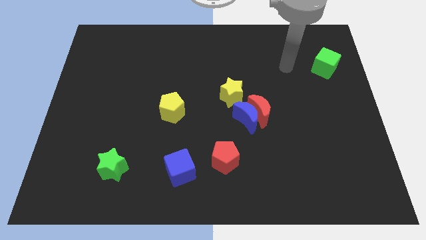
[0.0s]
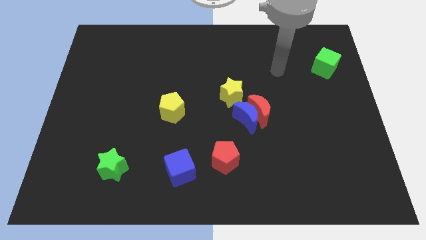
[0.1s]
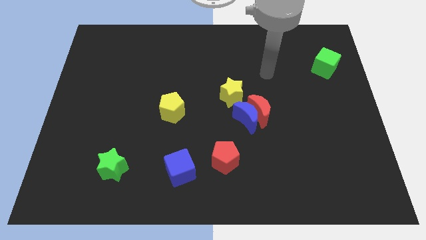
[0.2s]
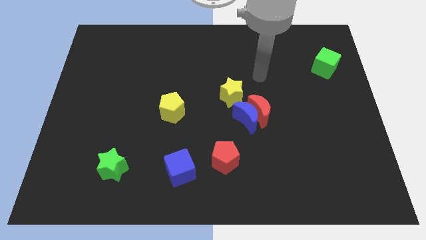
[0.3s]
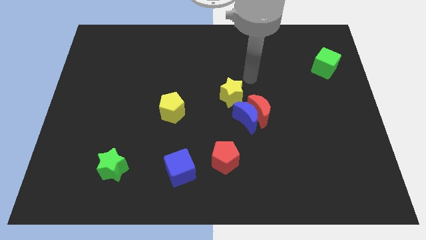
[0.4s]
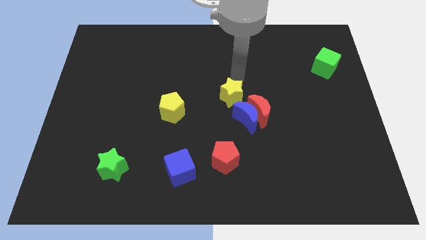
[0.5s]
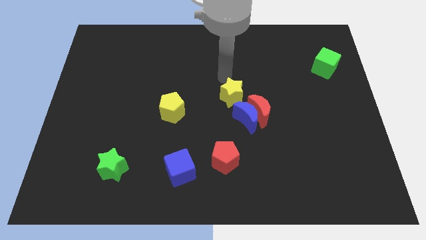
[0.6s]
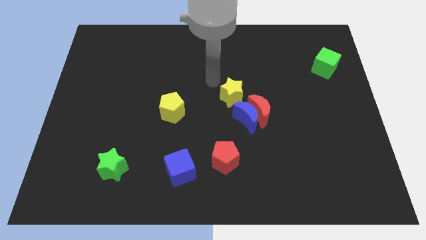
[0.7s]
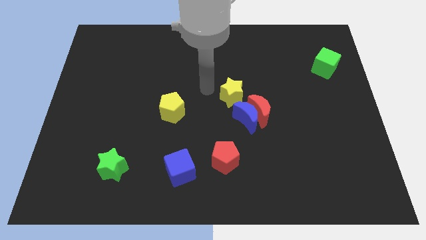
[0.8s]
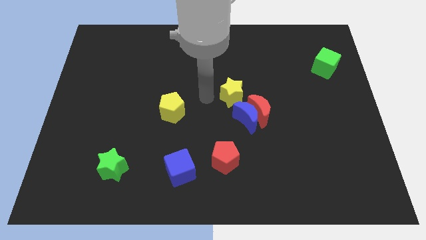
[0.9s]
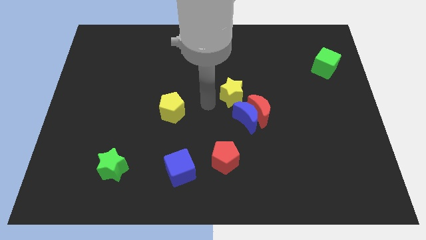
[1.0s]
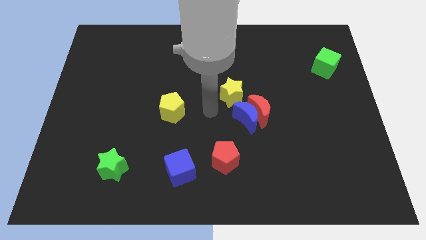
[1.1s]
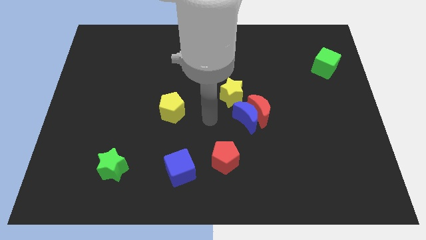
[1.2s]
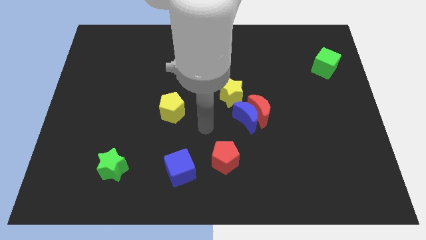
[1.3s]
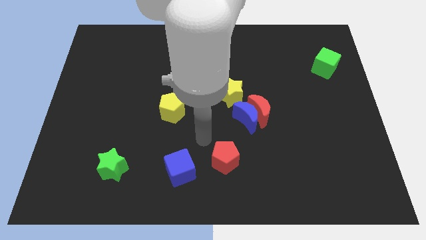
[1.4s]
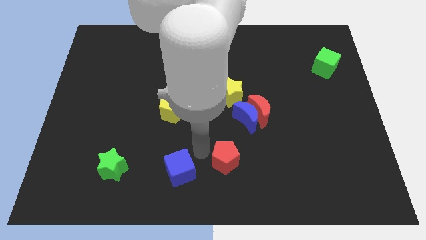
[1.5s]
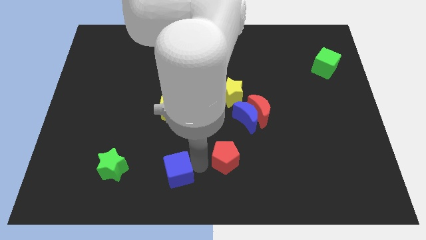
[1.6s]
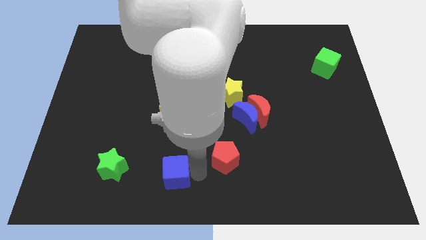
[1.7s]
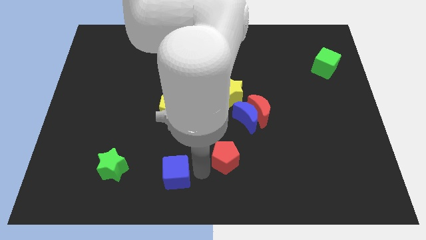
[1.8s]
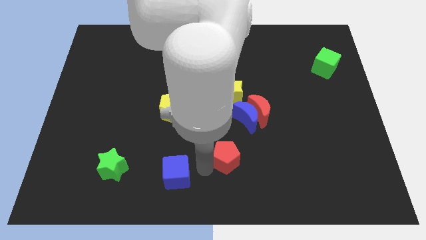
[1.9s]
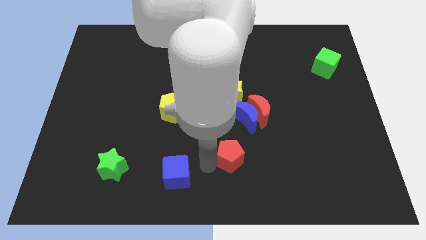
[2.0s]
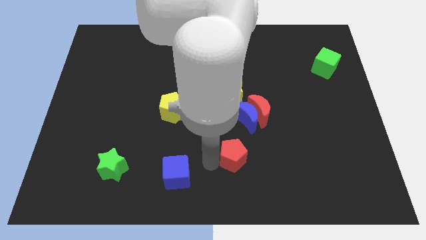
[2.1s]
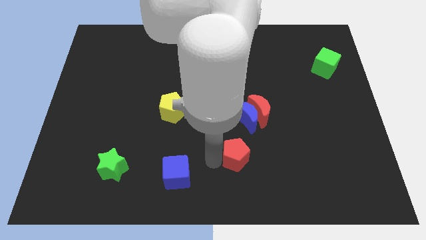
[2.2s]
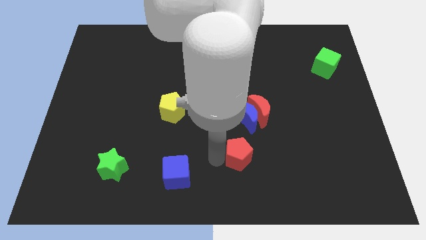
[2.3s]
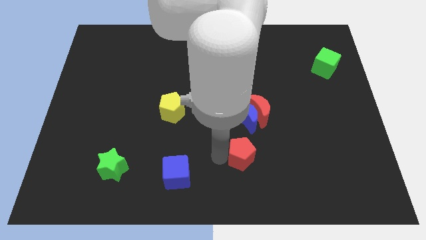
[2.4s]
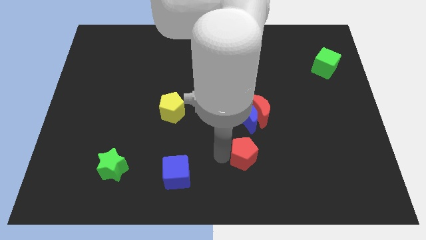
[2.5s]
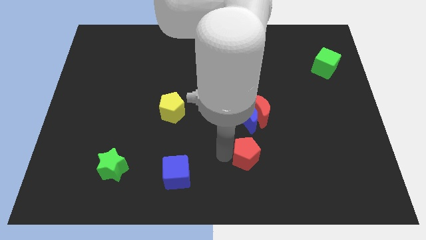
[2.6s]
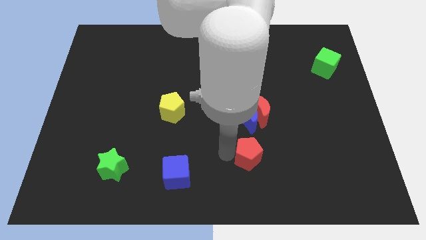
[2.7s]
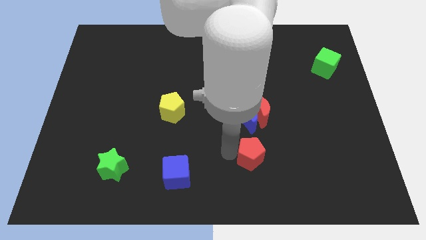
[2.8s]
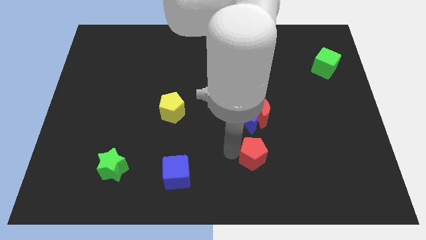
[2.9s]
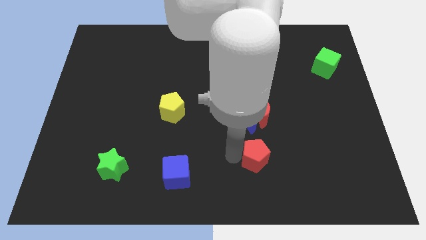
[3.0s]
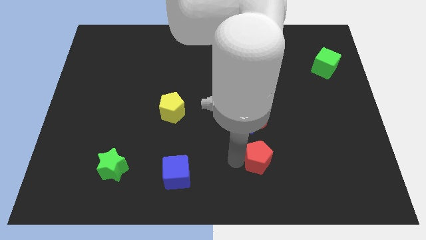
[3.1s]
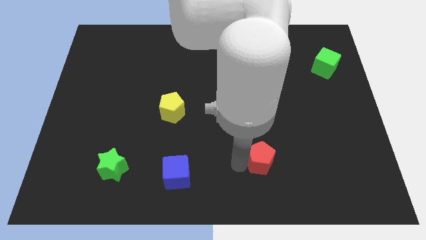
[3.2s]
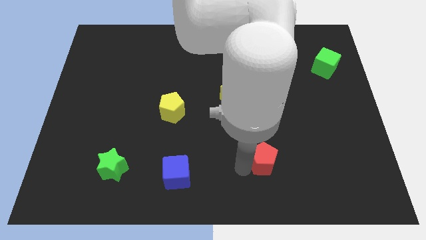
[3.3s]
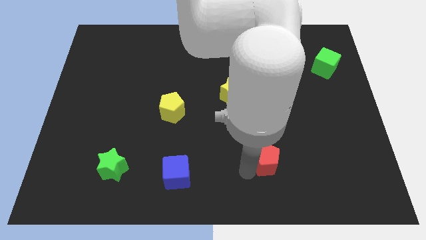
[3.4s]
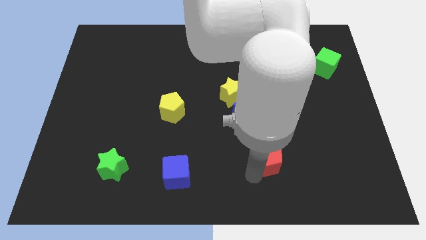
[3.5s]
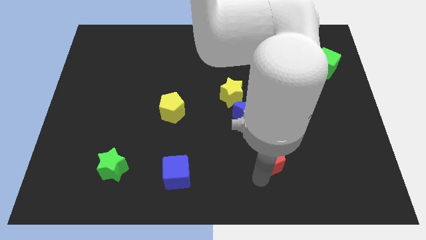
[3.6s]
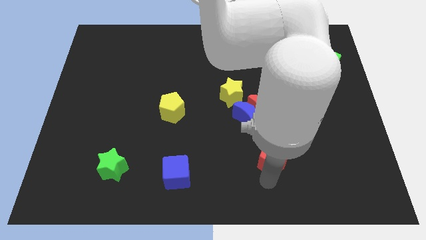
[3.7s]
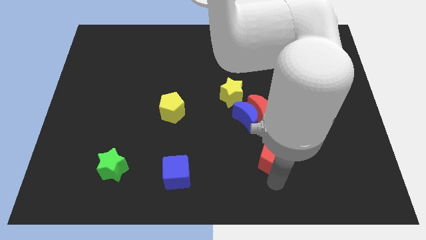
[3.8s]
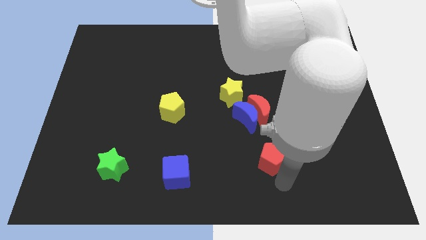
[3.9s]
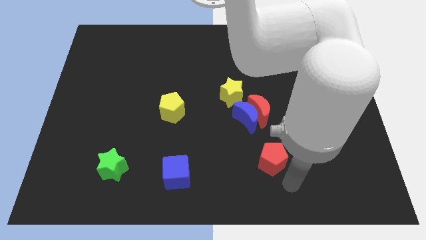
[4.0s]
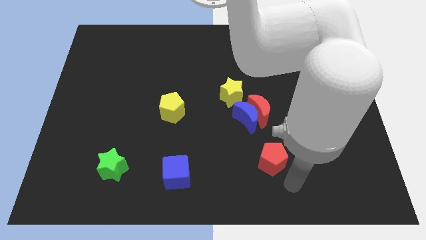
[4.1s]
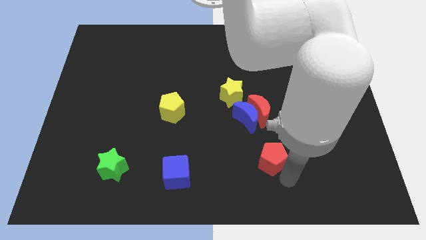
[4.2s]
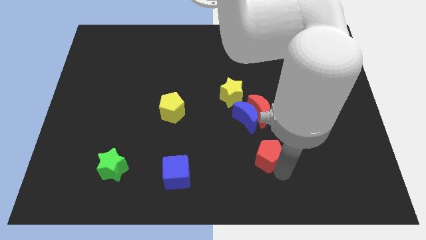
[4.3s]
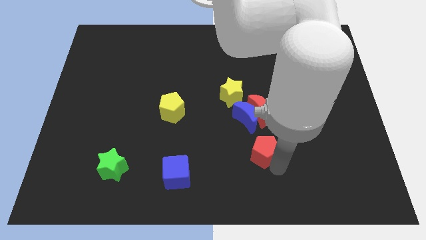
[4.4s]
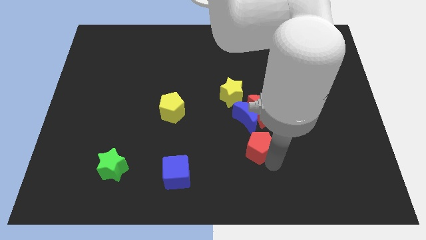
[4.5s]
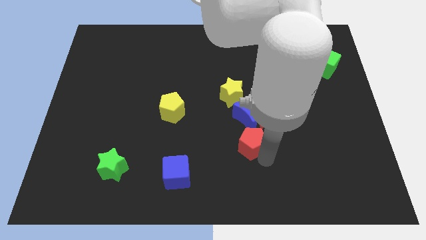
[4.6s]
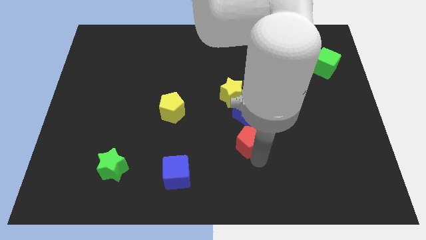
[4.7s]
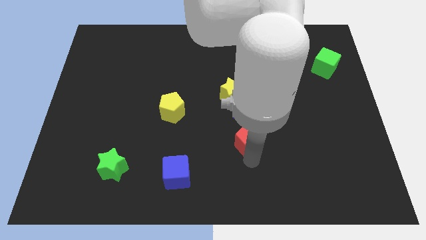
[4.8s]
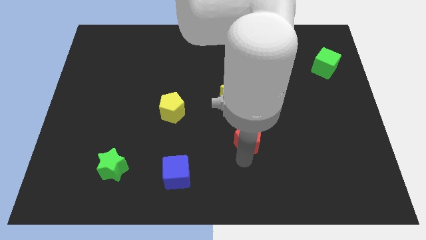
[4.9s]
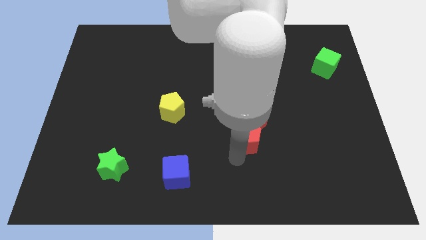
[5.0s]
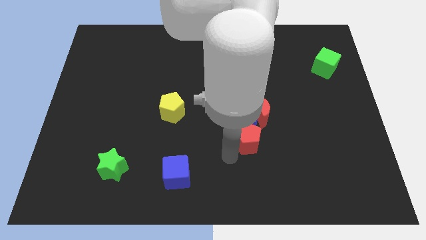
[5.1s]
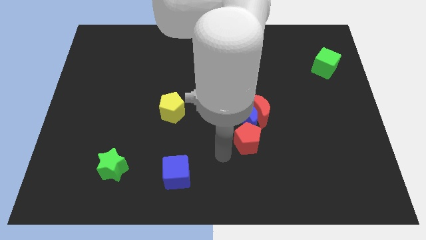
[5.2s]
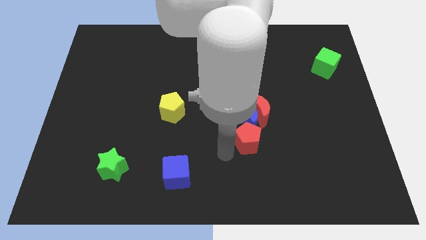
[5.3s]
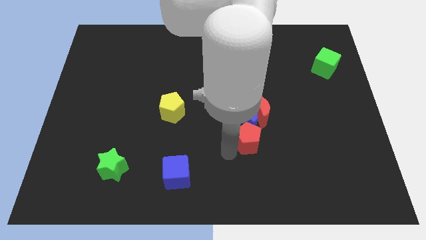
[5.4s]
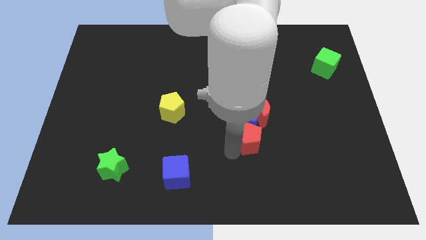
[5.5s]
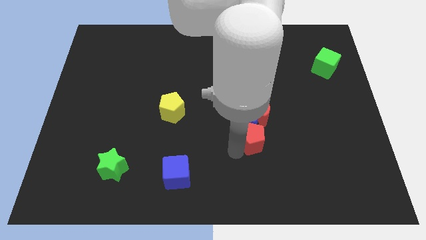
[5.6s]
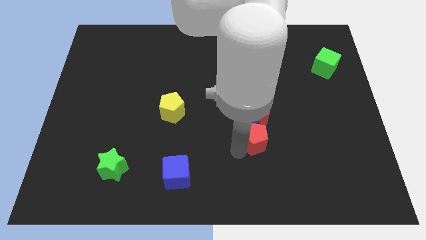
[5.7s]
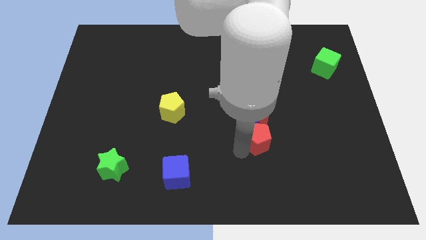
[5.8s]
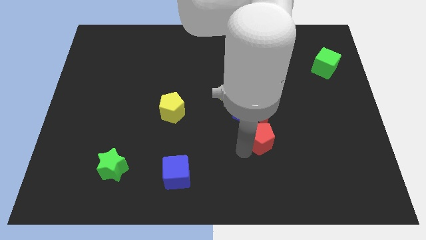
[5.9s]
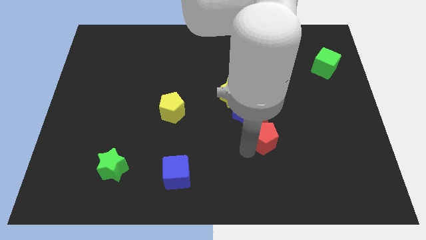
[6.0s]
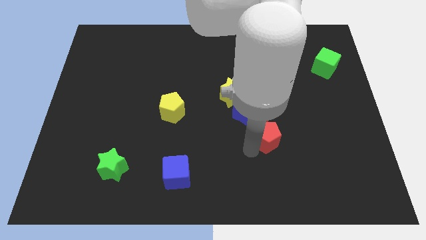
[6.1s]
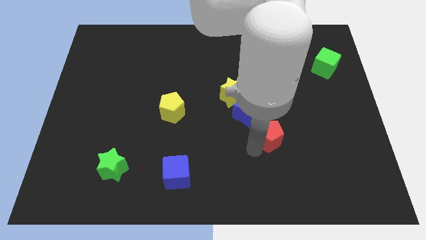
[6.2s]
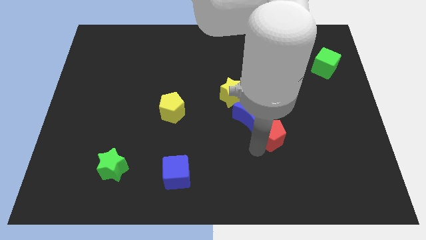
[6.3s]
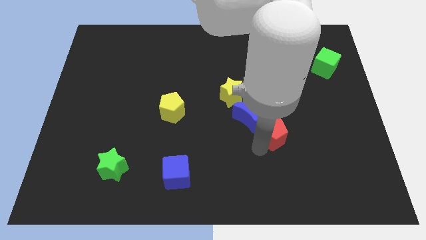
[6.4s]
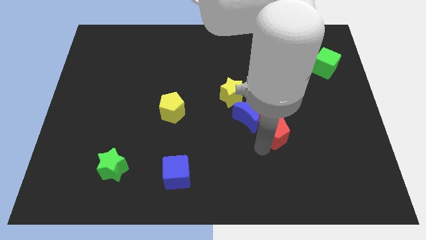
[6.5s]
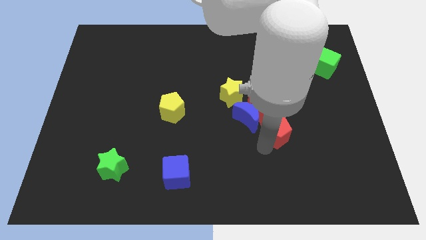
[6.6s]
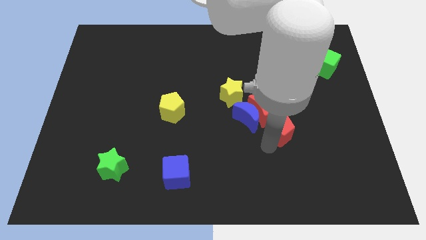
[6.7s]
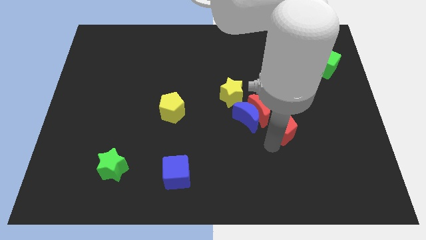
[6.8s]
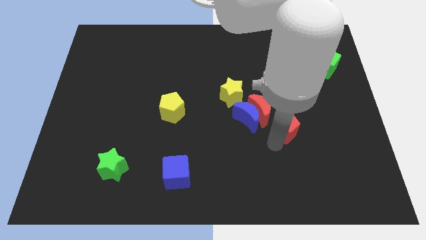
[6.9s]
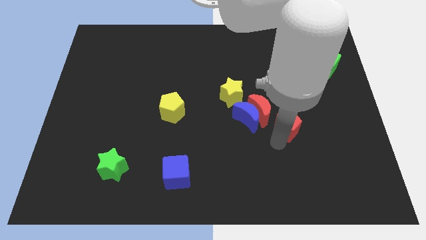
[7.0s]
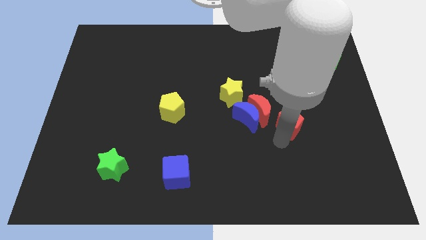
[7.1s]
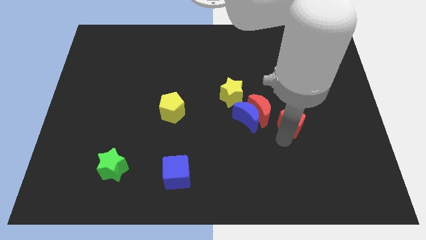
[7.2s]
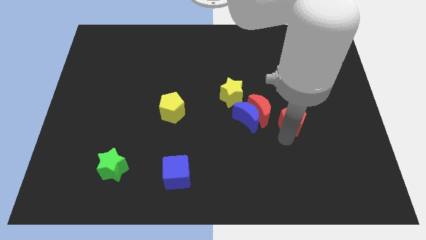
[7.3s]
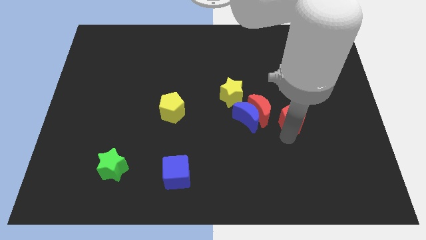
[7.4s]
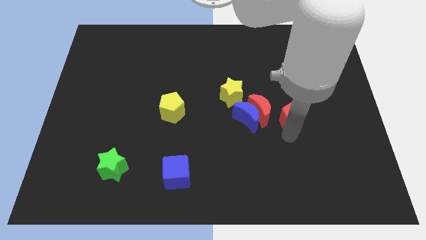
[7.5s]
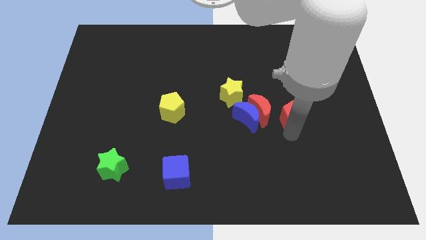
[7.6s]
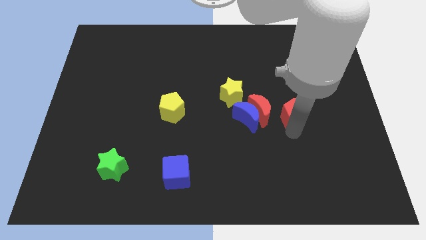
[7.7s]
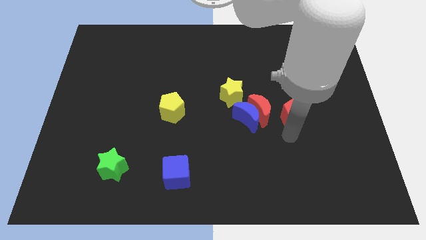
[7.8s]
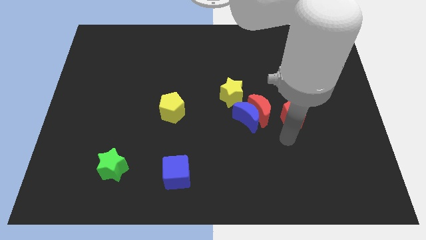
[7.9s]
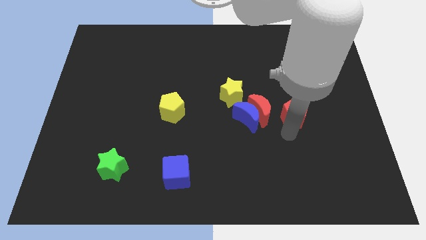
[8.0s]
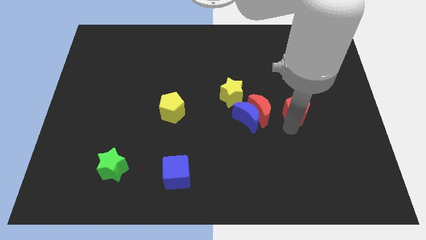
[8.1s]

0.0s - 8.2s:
slide the red pentagon upwards and then to the right

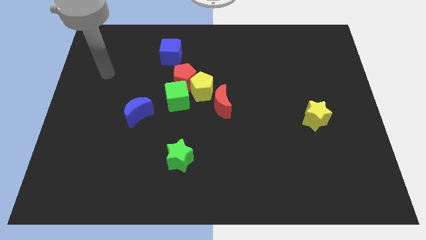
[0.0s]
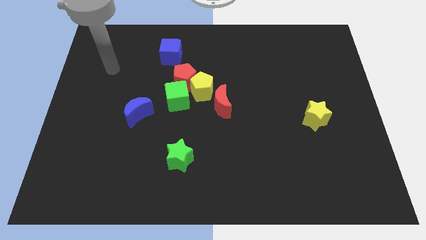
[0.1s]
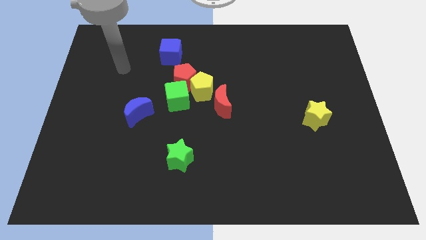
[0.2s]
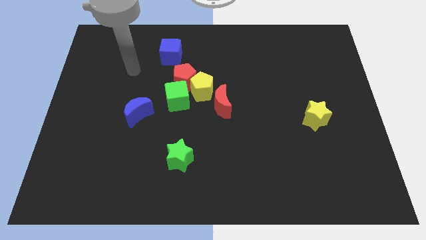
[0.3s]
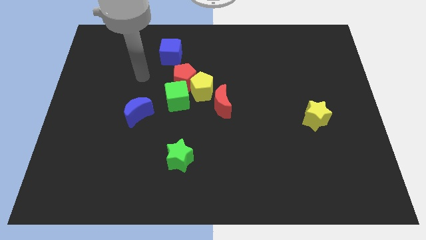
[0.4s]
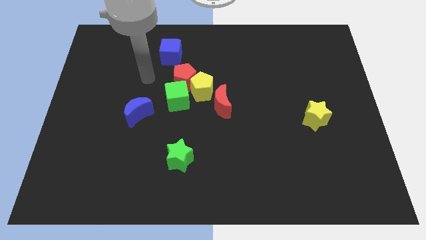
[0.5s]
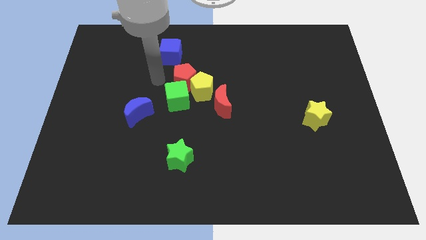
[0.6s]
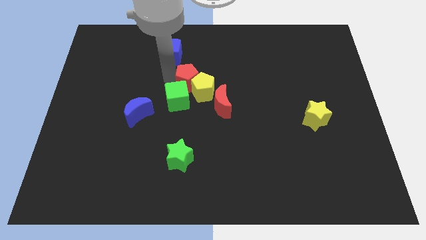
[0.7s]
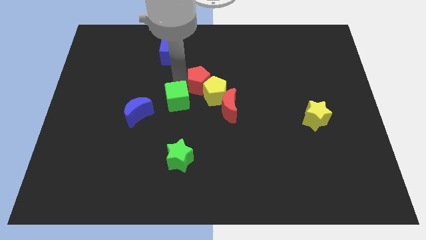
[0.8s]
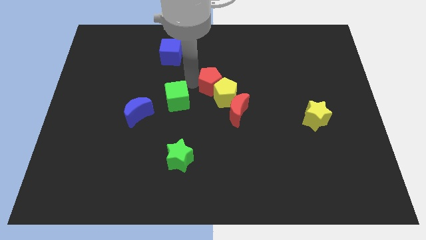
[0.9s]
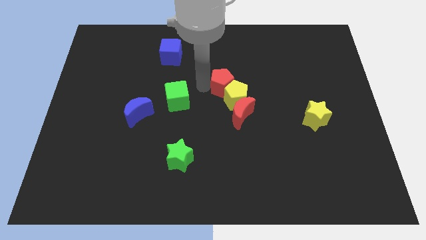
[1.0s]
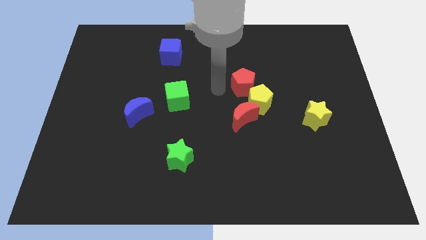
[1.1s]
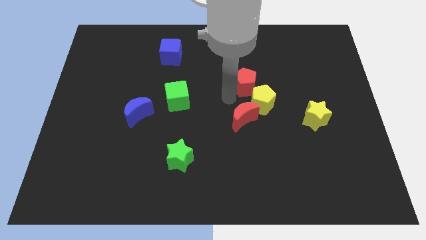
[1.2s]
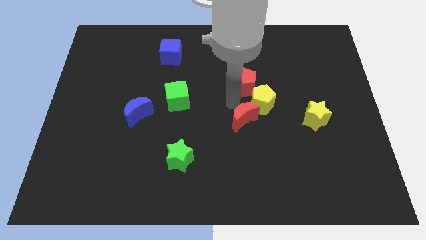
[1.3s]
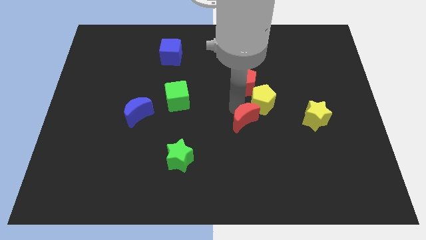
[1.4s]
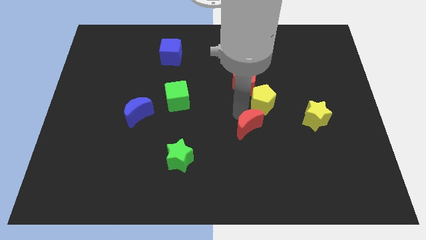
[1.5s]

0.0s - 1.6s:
slide the red moon down and to the right a bit
